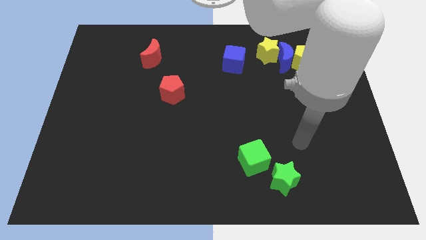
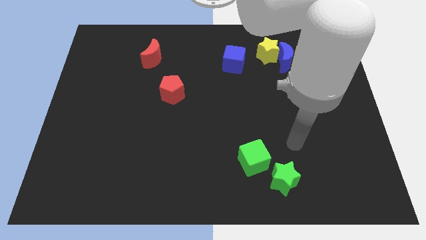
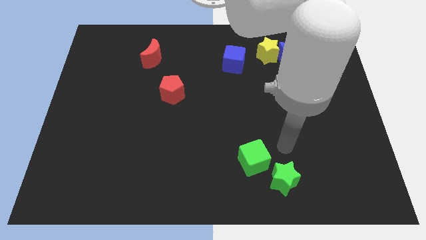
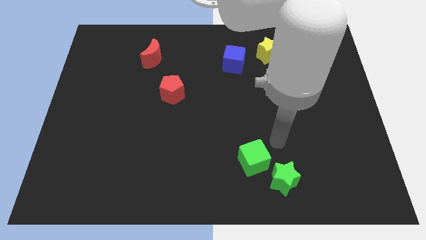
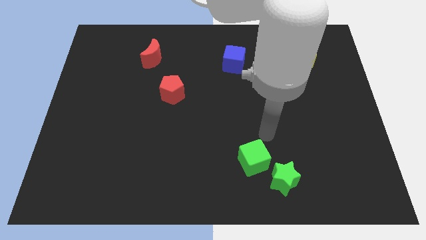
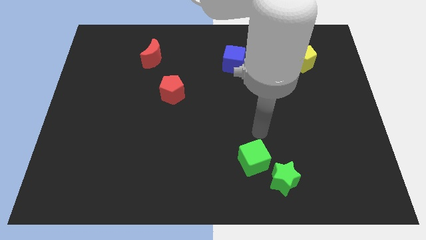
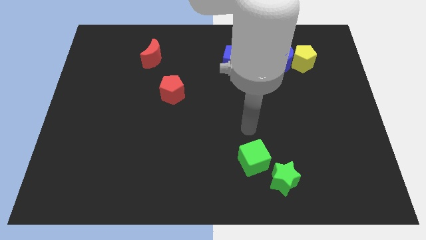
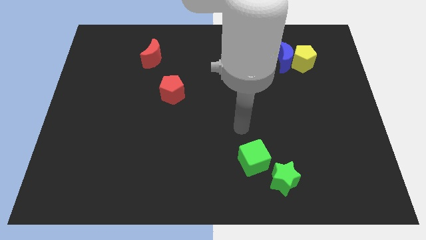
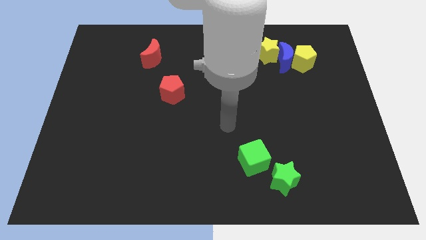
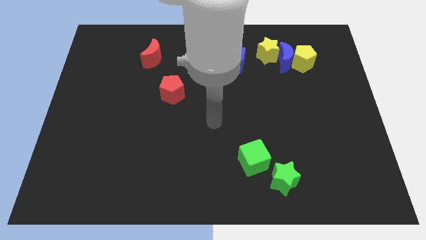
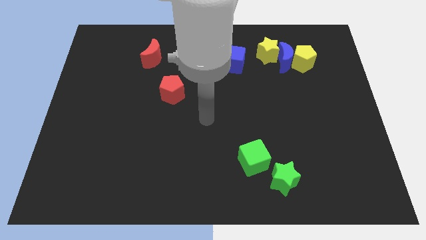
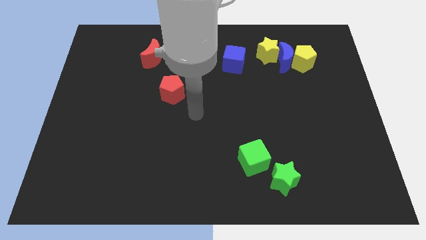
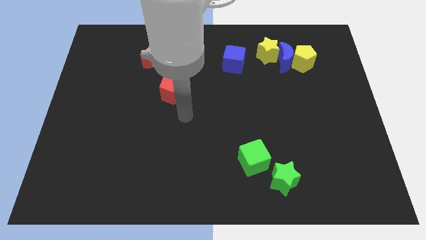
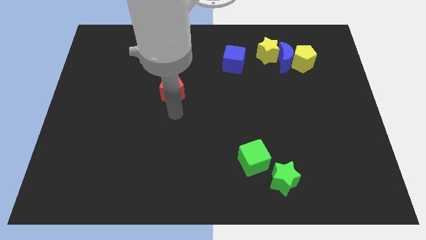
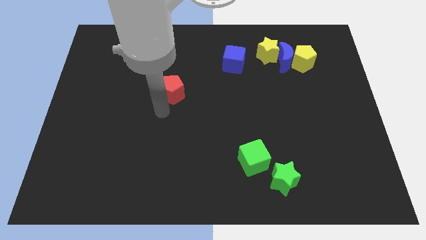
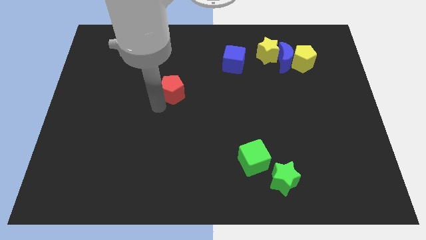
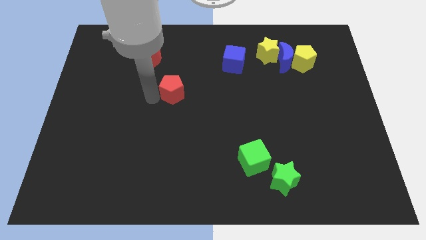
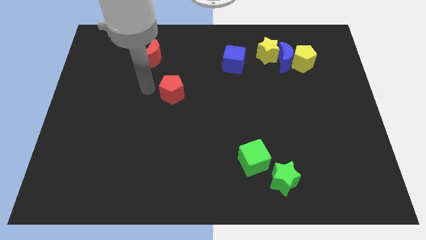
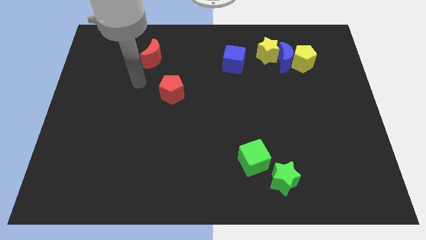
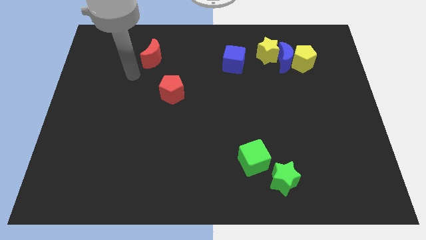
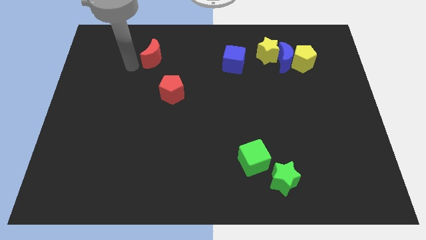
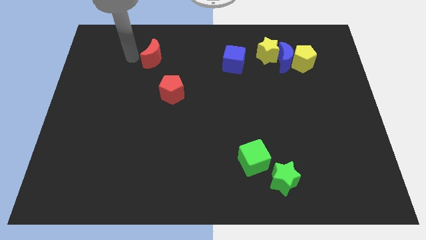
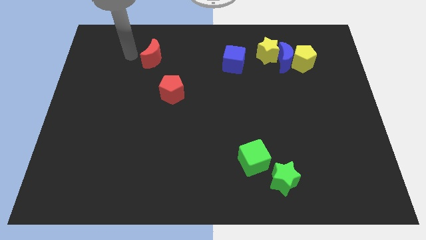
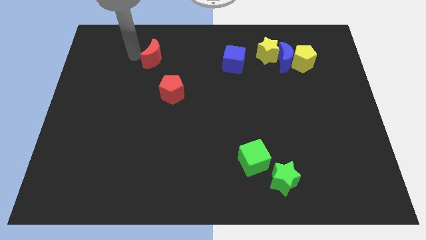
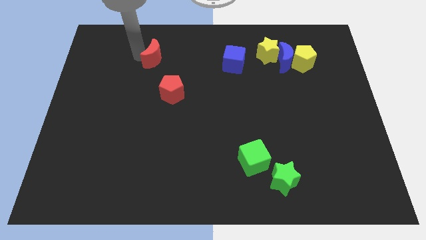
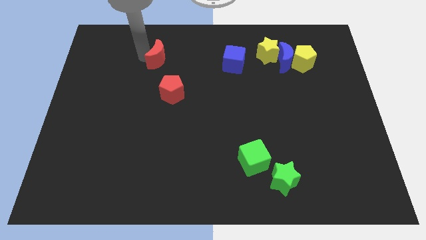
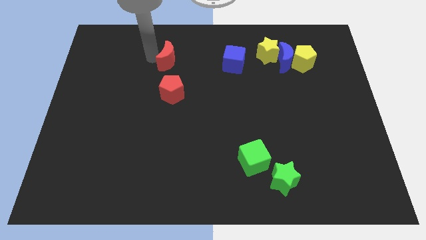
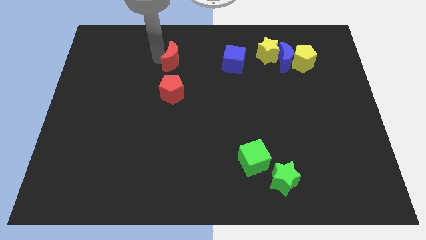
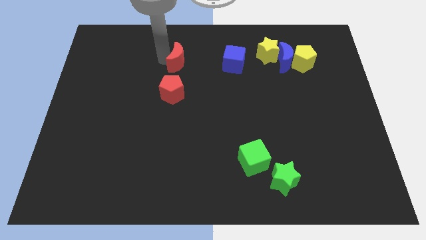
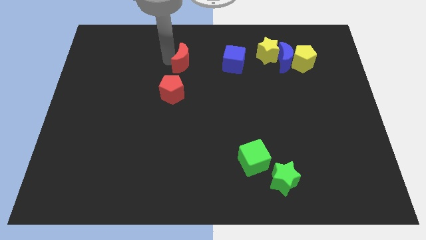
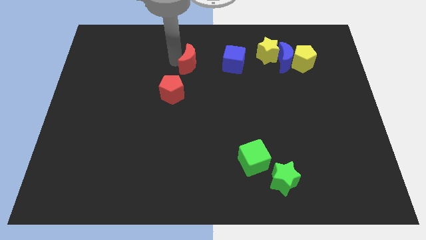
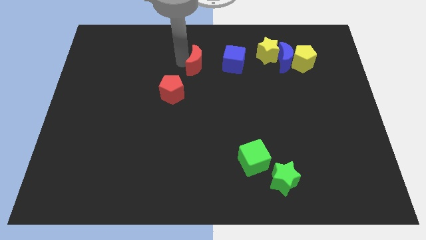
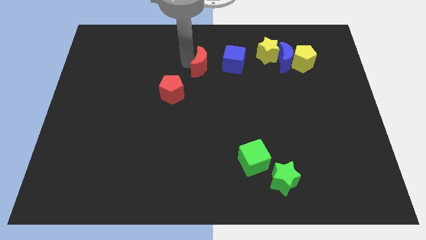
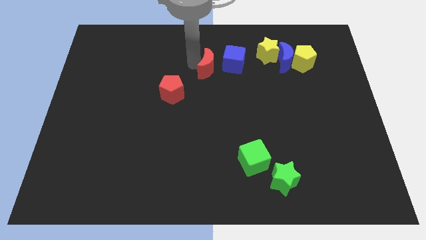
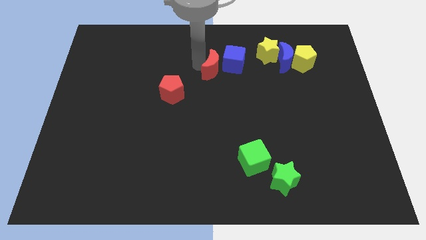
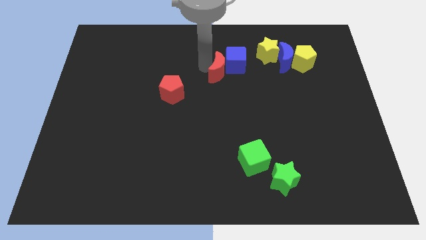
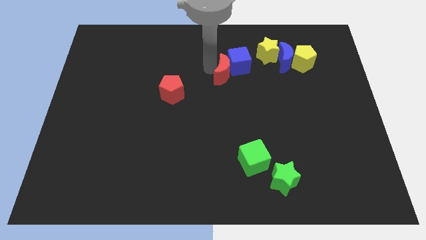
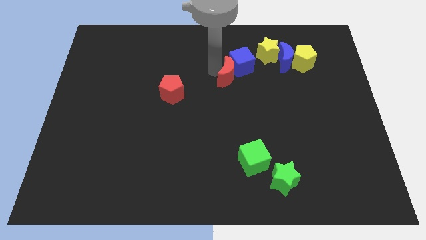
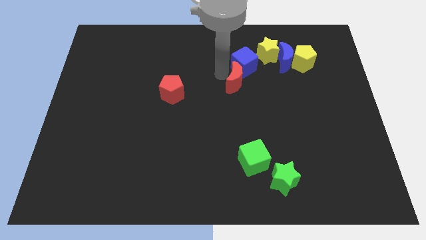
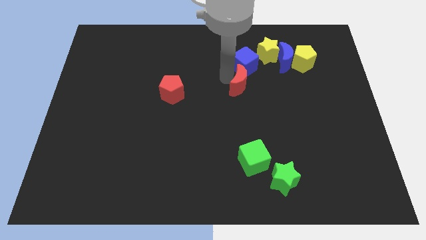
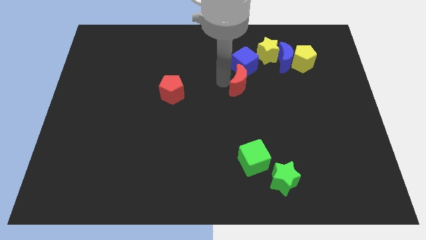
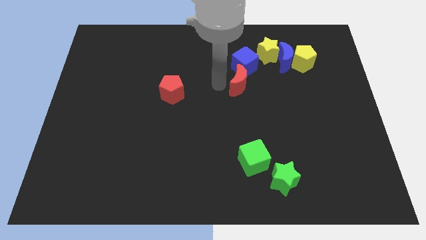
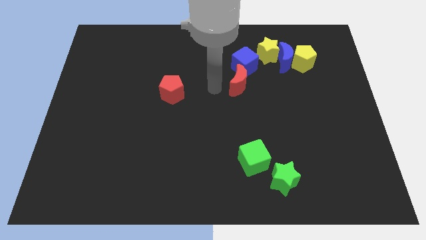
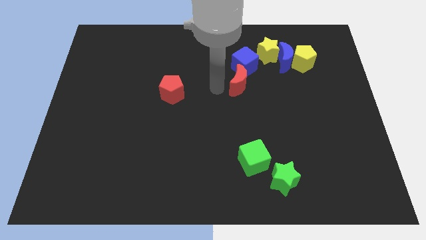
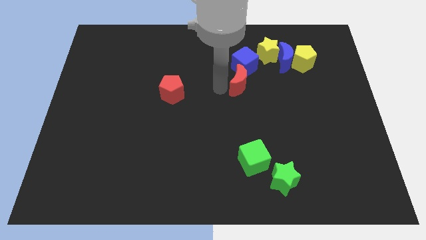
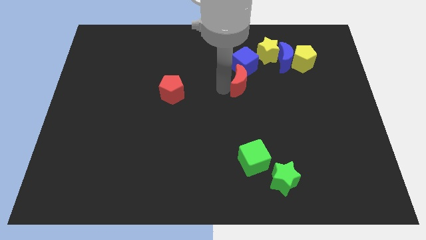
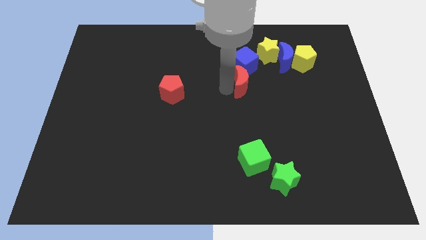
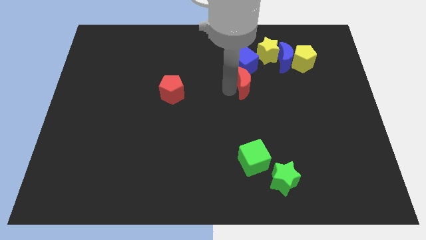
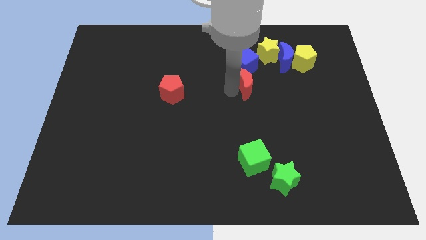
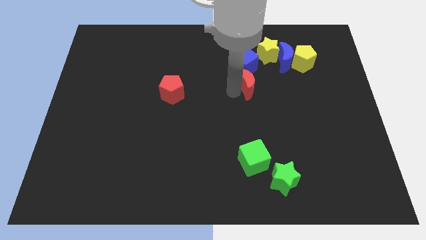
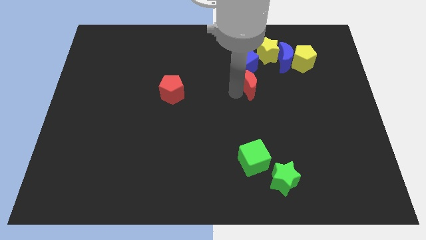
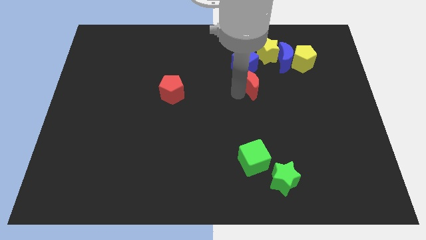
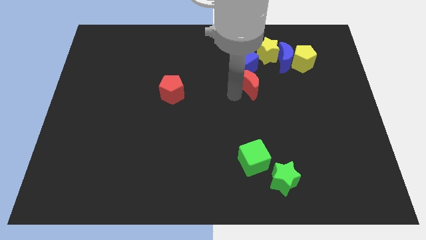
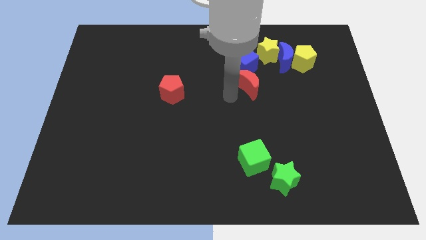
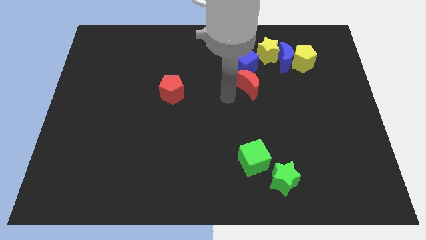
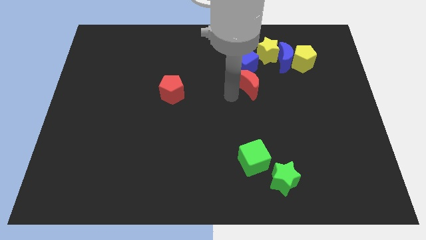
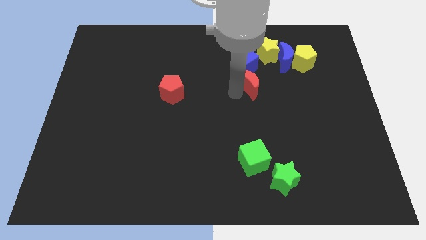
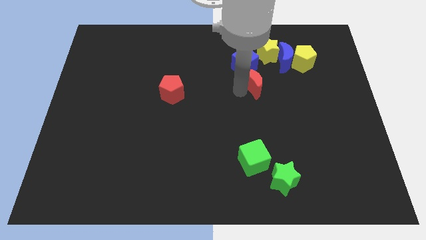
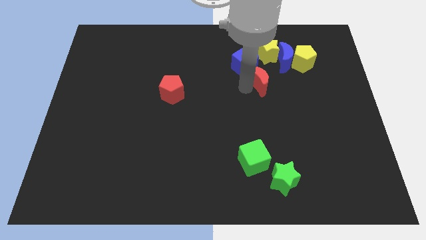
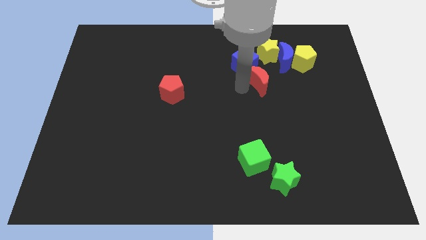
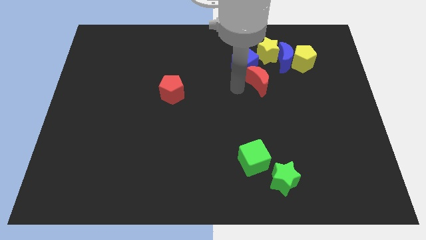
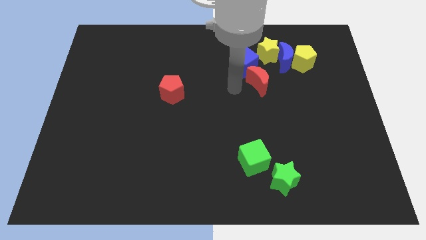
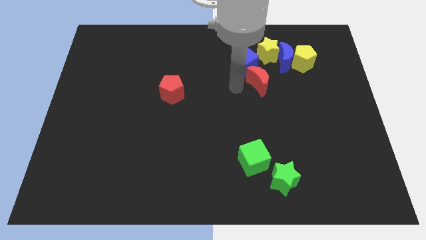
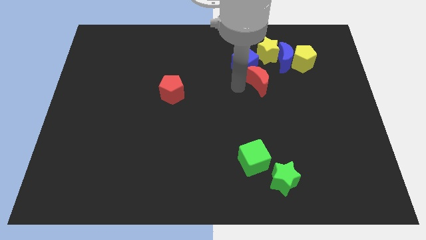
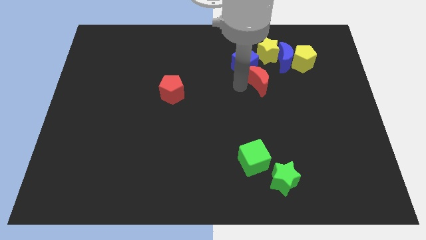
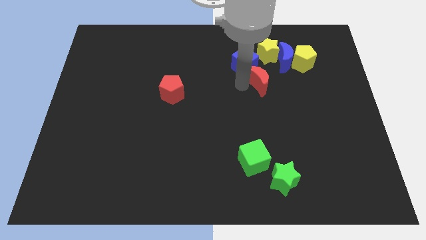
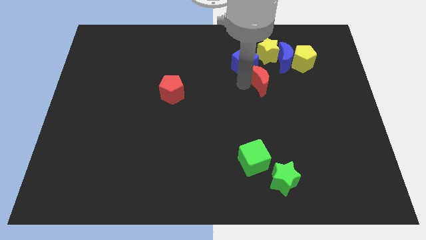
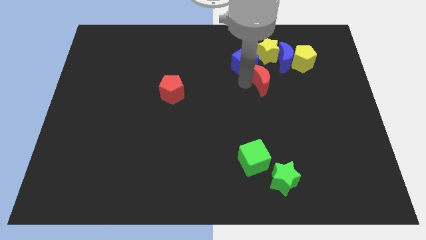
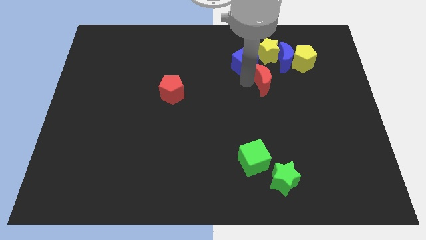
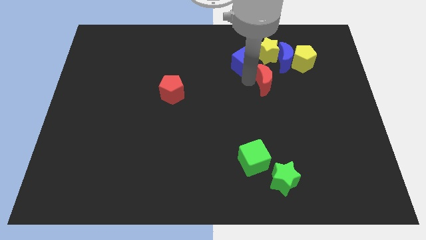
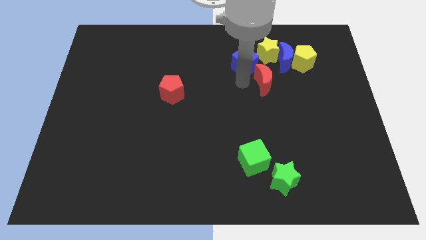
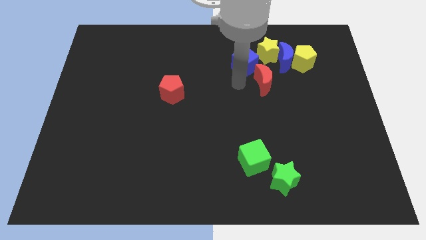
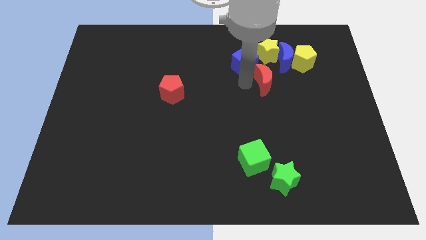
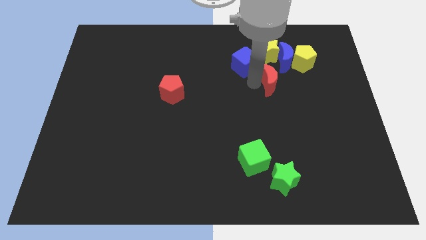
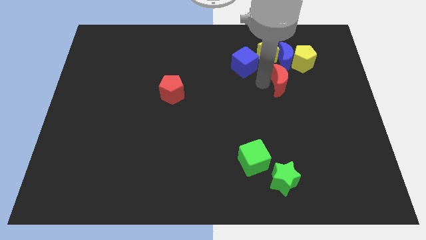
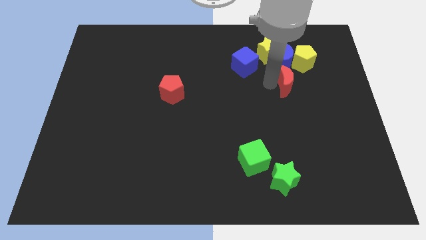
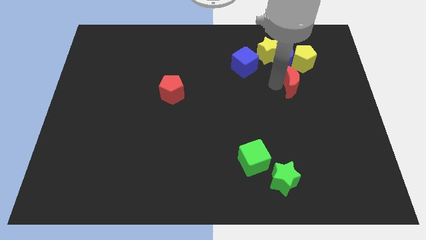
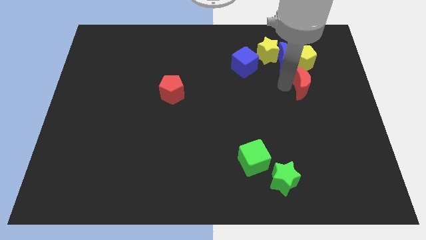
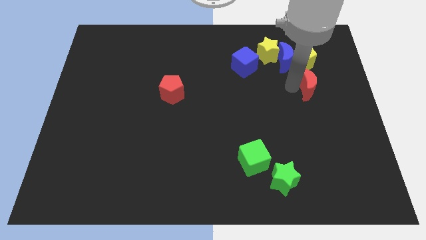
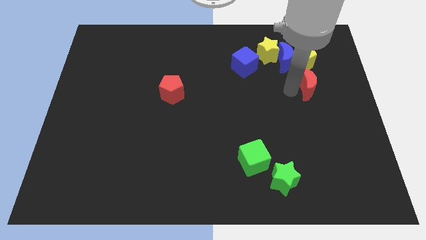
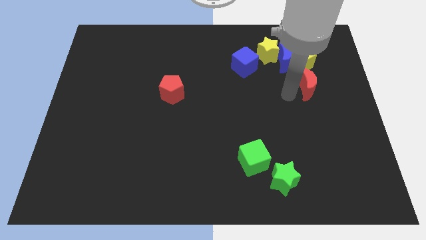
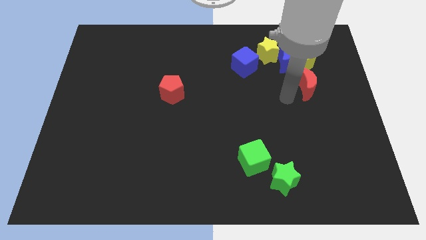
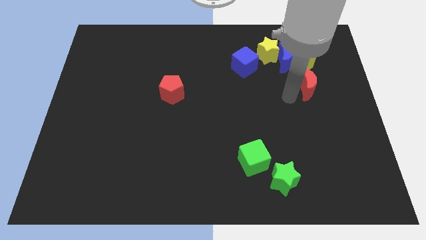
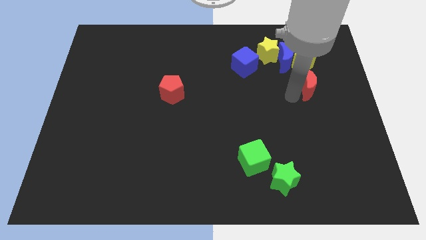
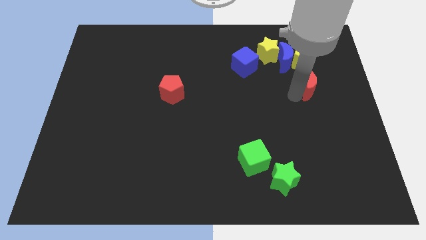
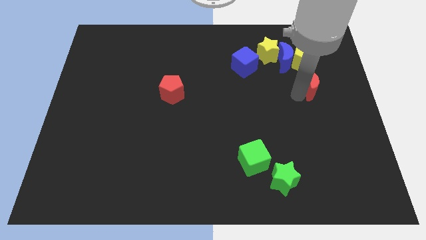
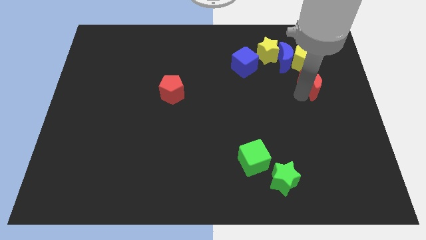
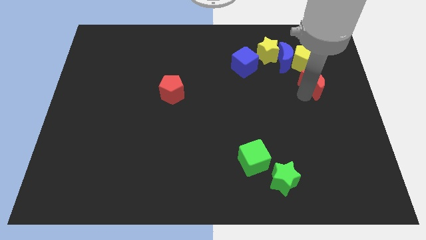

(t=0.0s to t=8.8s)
push the red moon to the bottom right of the yellow pentagon
